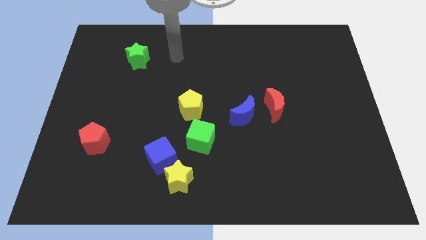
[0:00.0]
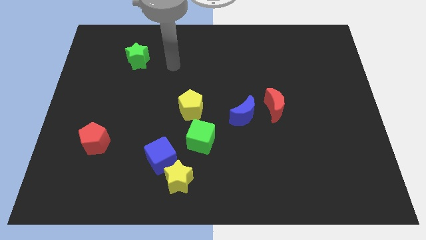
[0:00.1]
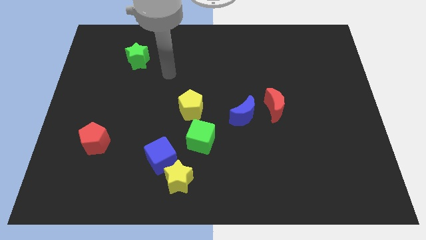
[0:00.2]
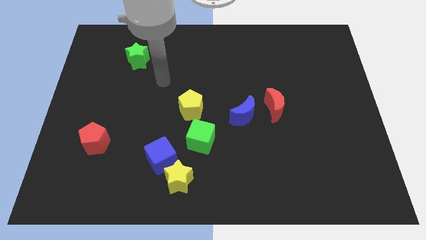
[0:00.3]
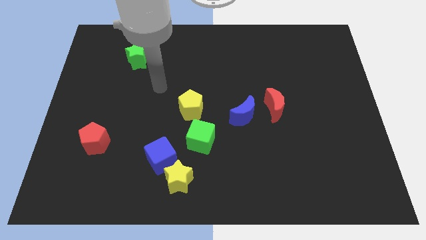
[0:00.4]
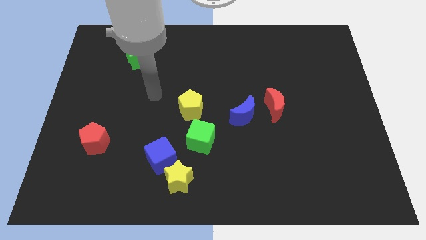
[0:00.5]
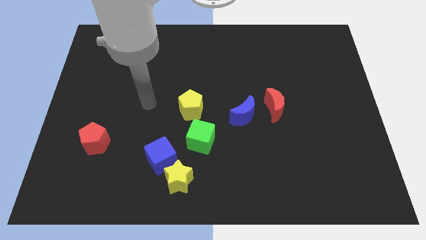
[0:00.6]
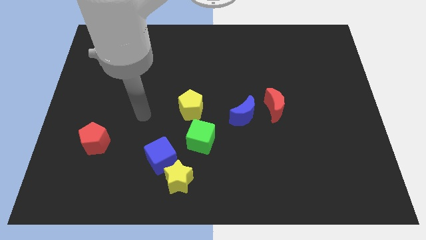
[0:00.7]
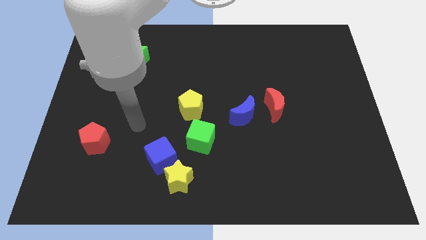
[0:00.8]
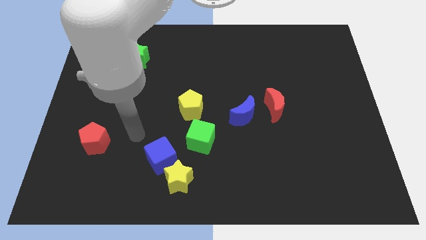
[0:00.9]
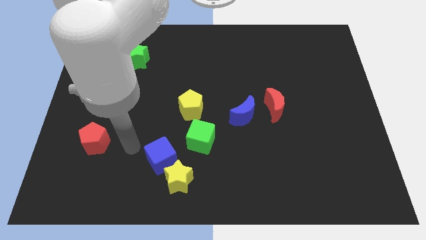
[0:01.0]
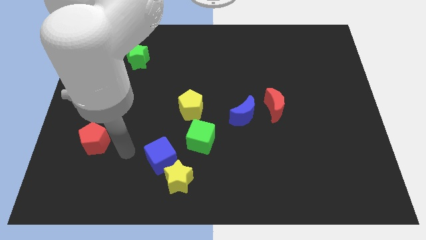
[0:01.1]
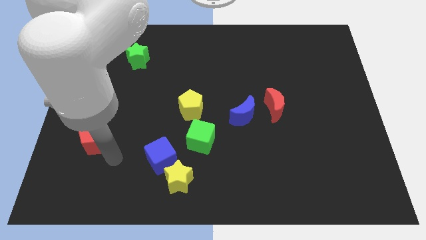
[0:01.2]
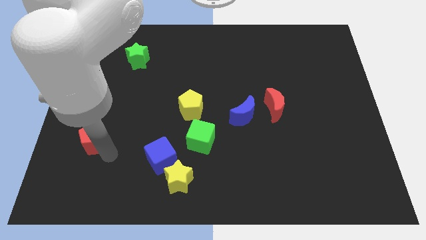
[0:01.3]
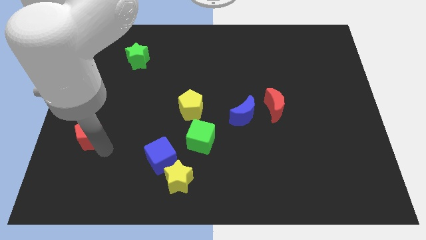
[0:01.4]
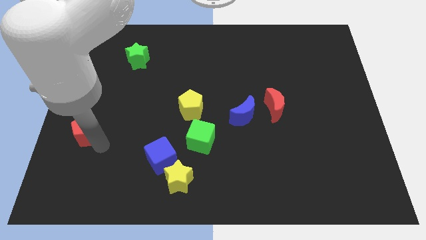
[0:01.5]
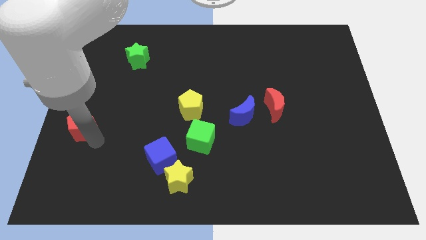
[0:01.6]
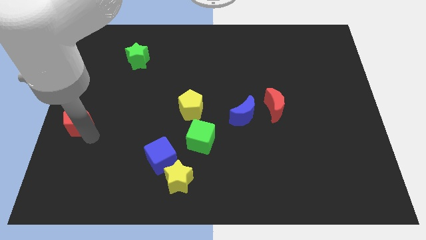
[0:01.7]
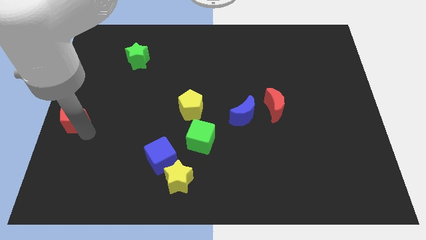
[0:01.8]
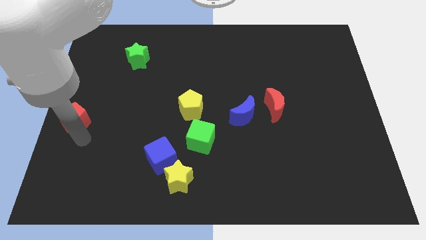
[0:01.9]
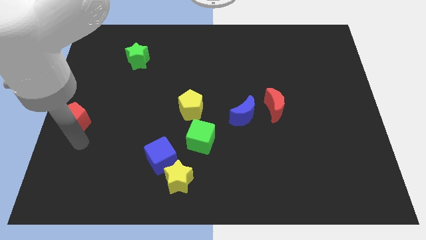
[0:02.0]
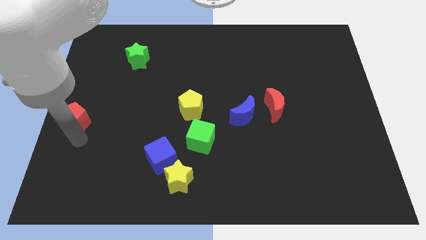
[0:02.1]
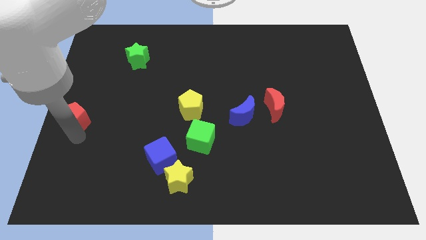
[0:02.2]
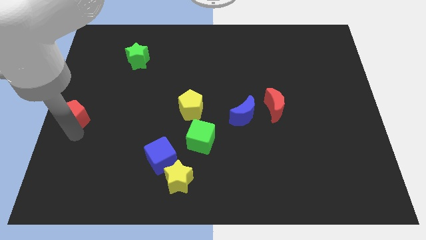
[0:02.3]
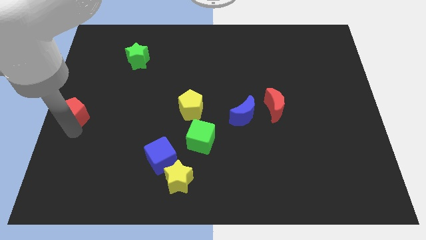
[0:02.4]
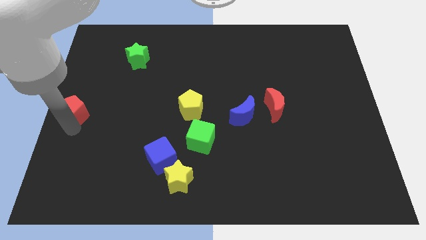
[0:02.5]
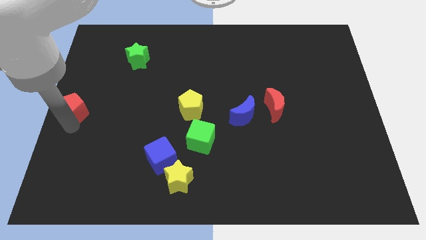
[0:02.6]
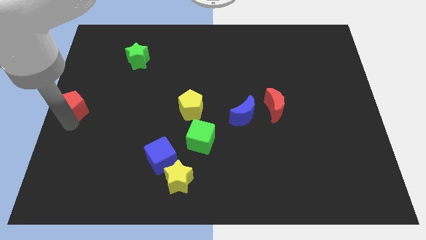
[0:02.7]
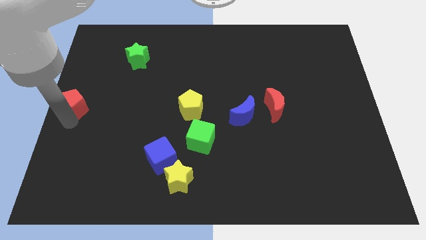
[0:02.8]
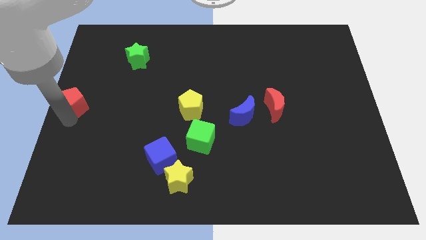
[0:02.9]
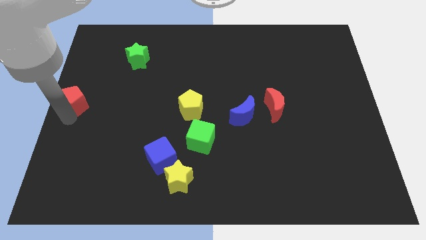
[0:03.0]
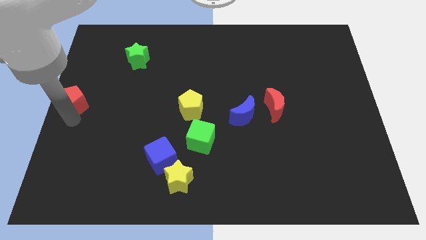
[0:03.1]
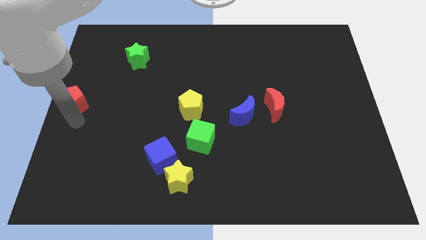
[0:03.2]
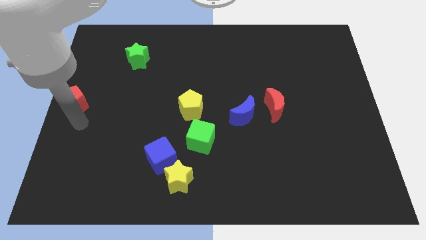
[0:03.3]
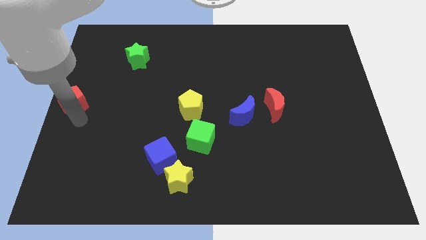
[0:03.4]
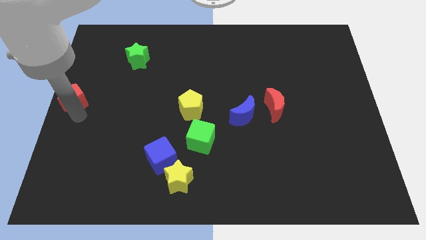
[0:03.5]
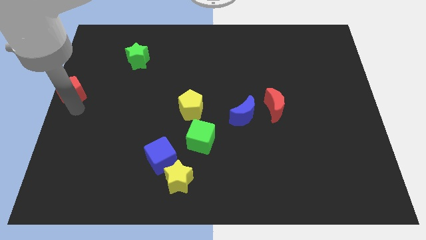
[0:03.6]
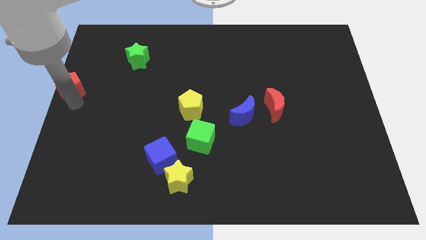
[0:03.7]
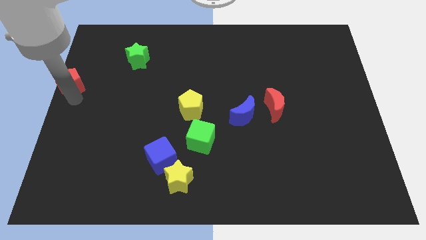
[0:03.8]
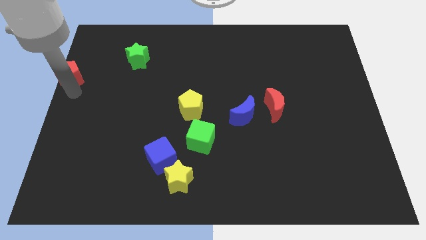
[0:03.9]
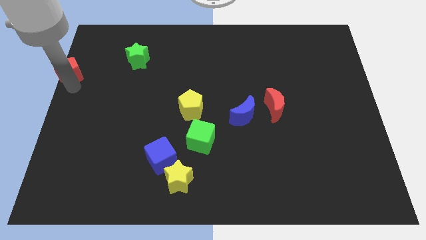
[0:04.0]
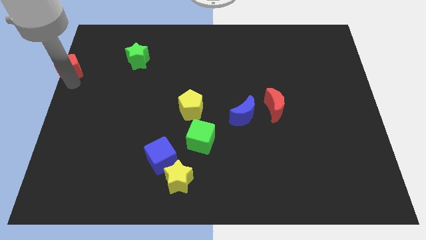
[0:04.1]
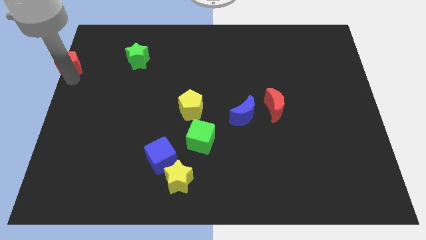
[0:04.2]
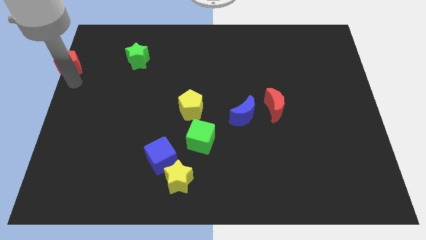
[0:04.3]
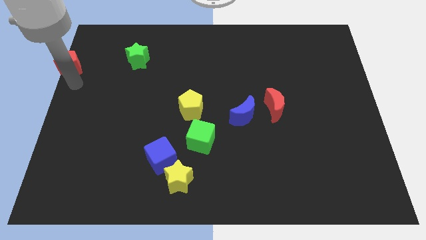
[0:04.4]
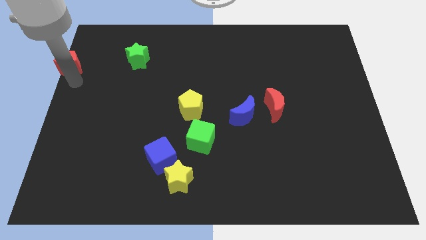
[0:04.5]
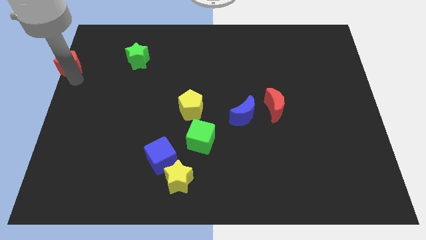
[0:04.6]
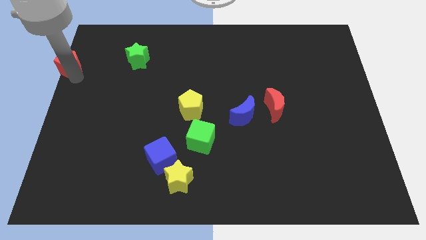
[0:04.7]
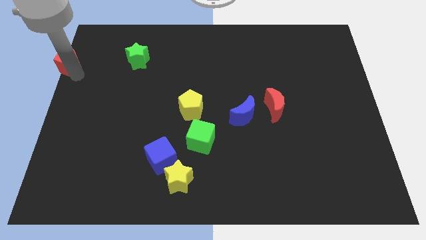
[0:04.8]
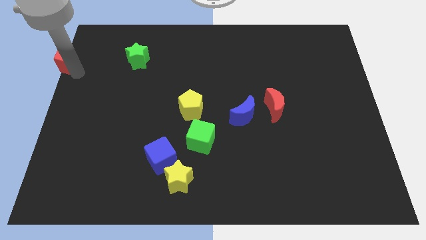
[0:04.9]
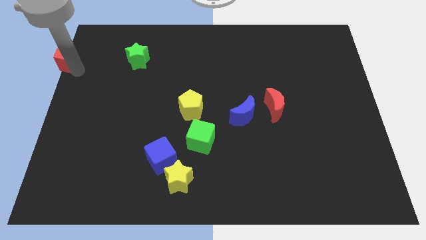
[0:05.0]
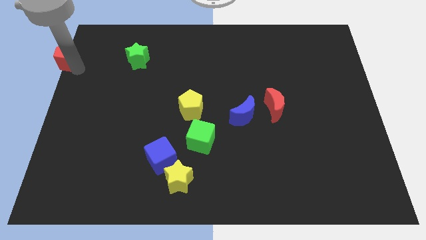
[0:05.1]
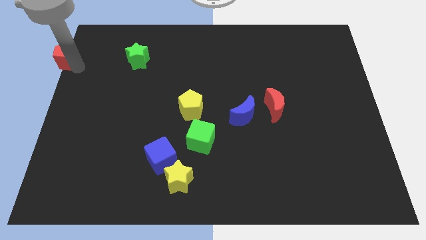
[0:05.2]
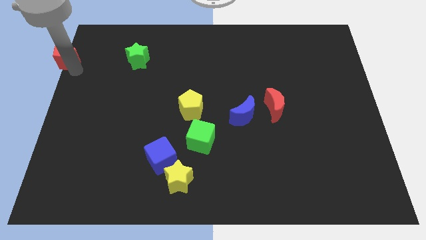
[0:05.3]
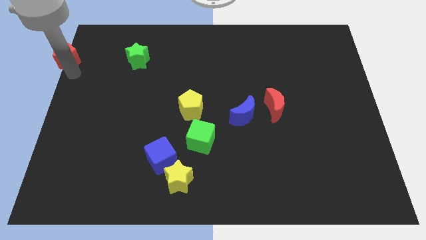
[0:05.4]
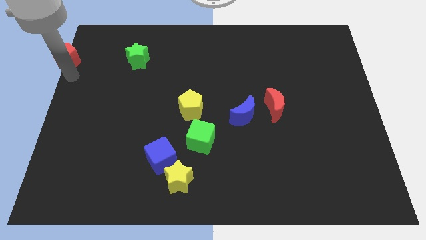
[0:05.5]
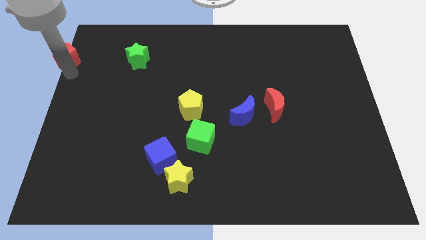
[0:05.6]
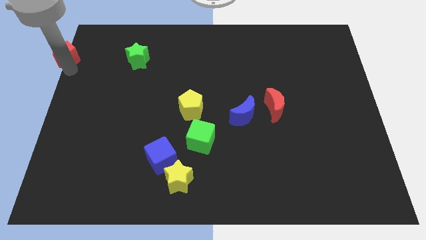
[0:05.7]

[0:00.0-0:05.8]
slide the red pentagon to the top left

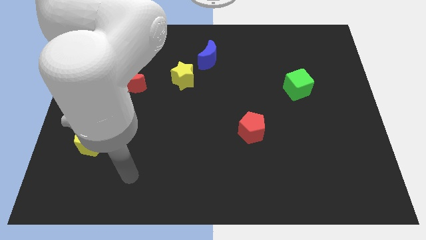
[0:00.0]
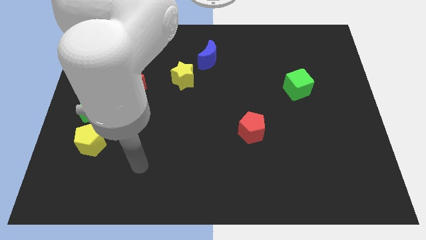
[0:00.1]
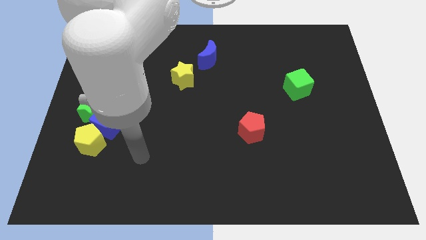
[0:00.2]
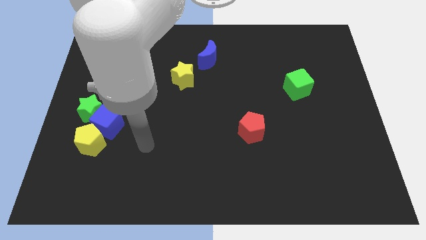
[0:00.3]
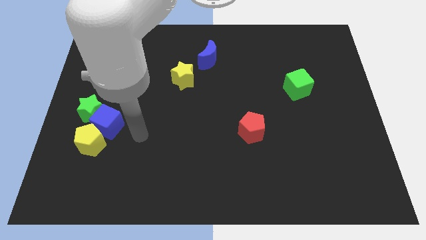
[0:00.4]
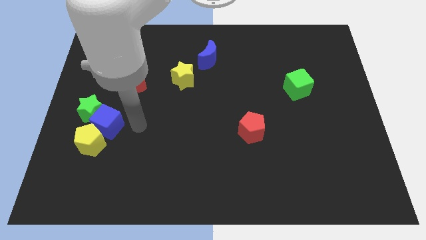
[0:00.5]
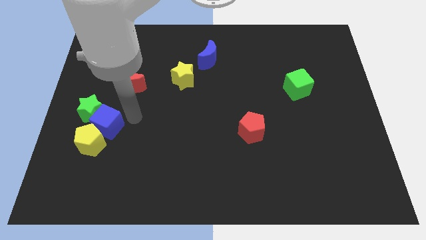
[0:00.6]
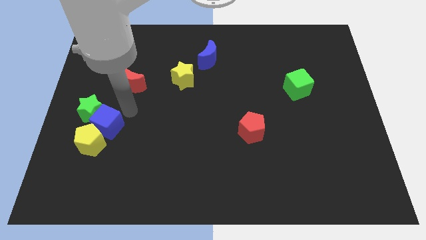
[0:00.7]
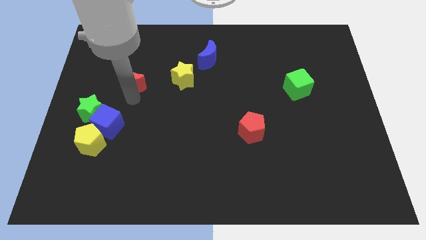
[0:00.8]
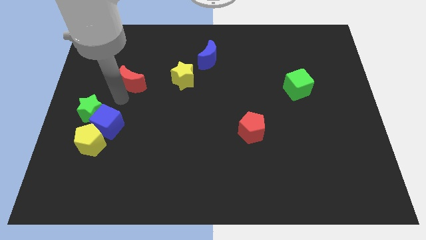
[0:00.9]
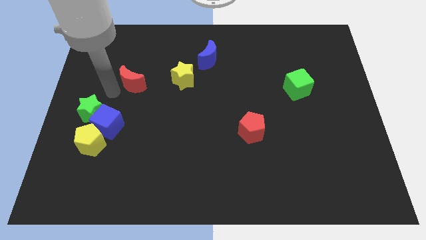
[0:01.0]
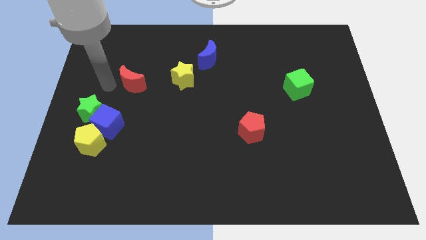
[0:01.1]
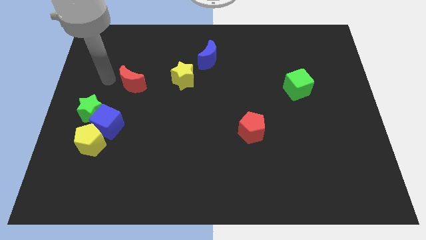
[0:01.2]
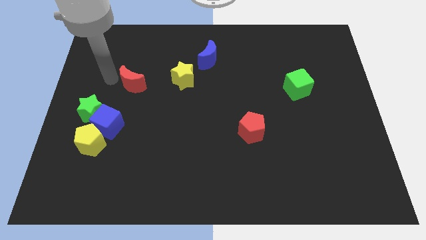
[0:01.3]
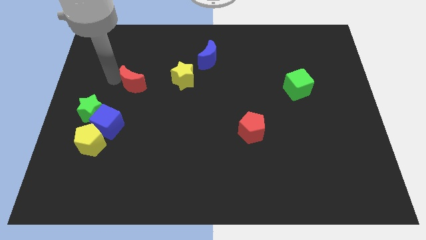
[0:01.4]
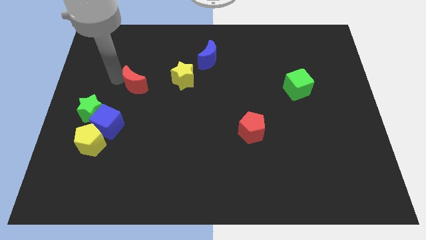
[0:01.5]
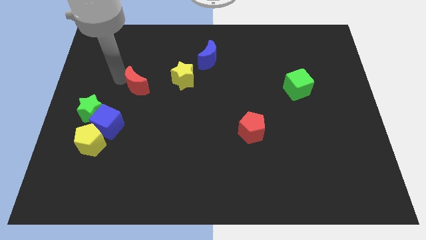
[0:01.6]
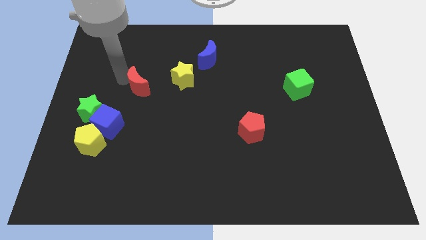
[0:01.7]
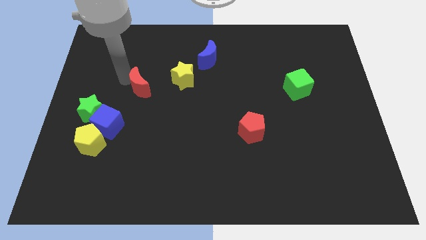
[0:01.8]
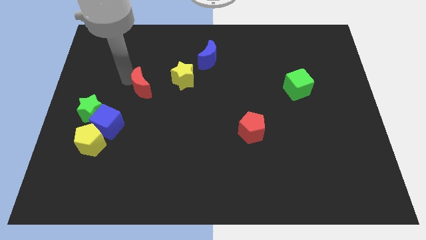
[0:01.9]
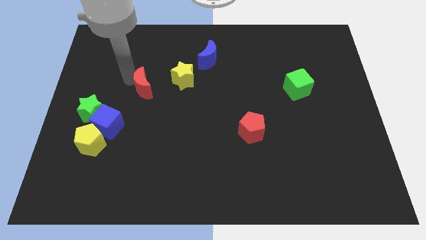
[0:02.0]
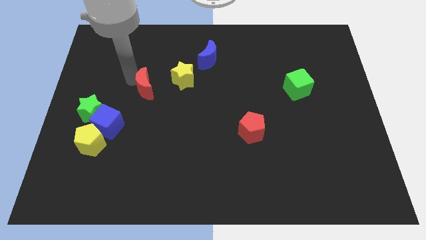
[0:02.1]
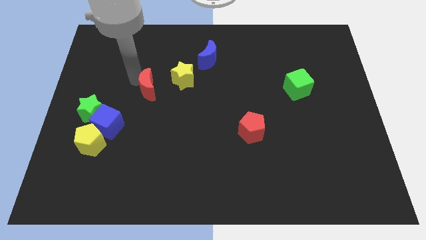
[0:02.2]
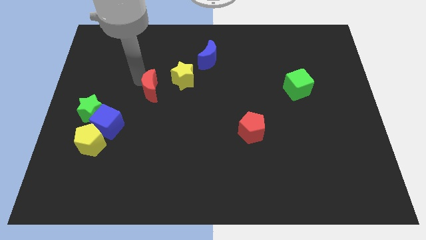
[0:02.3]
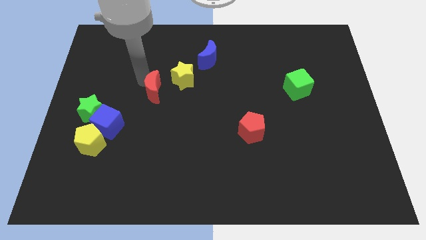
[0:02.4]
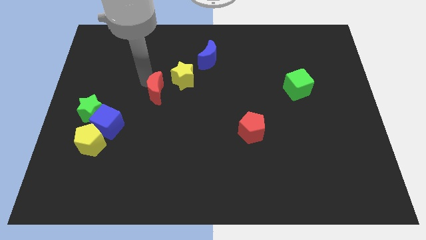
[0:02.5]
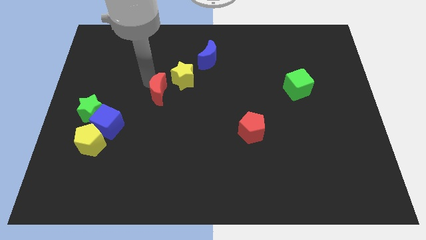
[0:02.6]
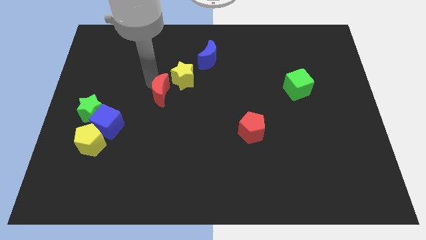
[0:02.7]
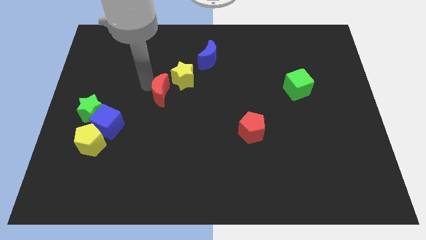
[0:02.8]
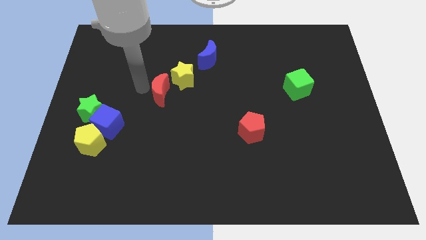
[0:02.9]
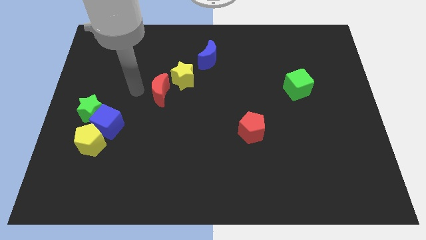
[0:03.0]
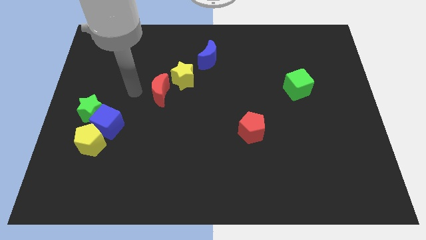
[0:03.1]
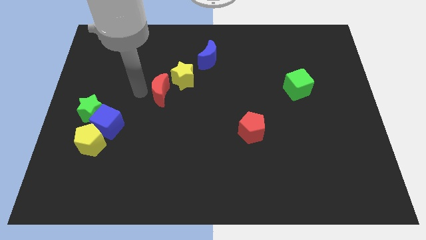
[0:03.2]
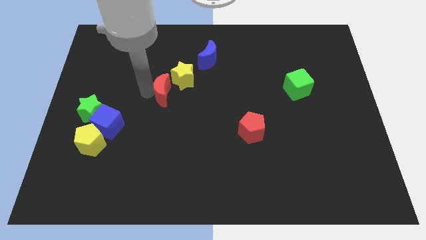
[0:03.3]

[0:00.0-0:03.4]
slide the red moon to the middle
